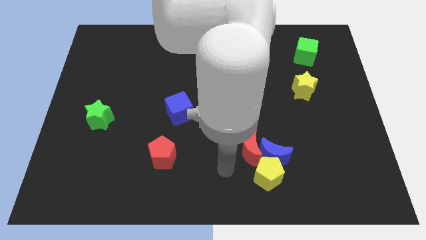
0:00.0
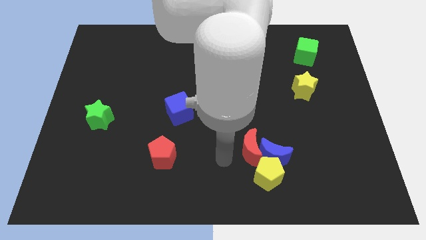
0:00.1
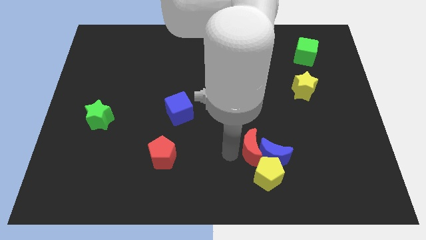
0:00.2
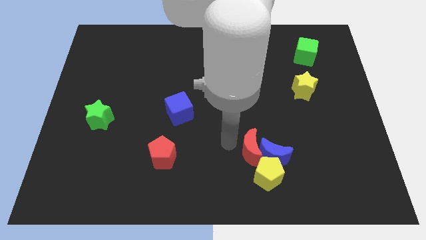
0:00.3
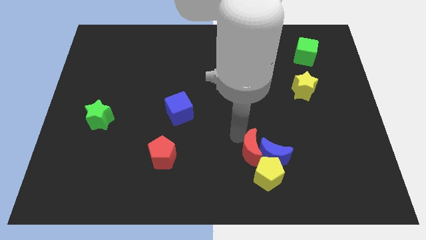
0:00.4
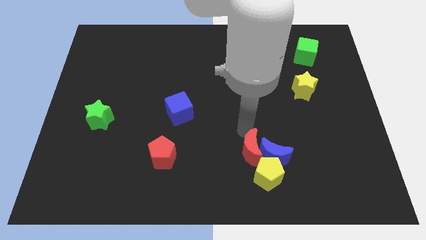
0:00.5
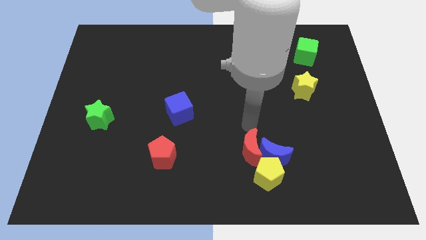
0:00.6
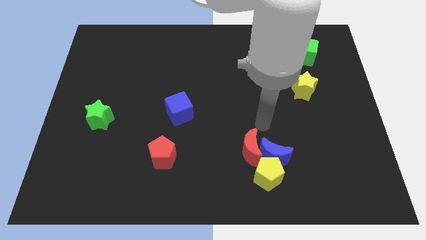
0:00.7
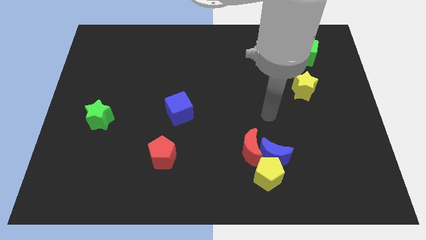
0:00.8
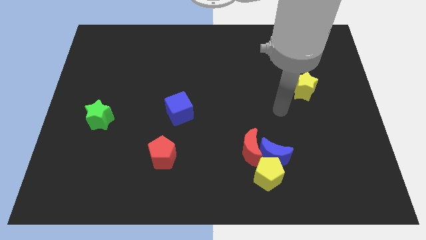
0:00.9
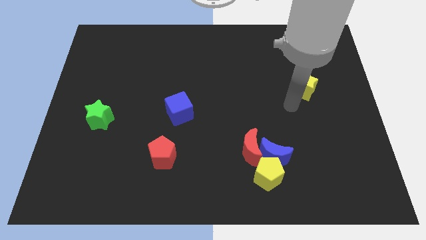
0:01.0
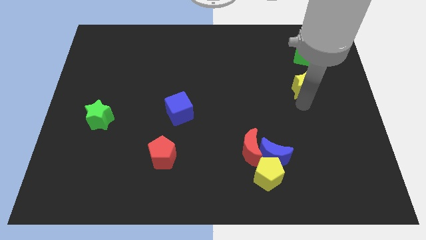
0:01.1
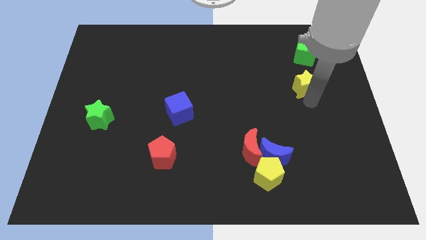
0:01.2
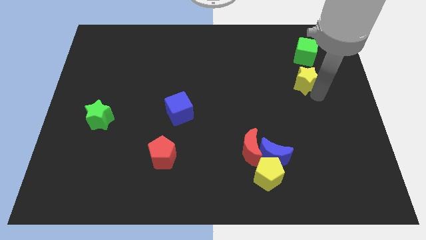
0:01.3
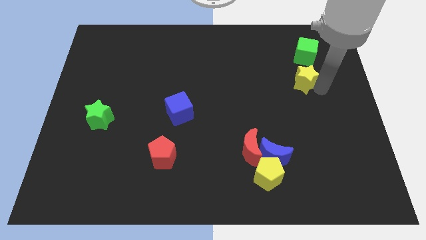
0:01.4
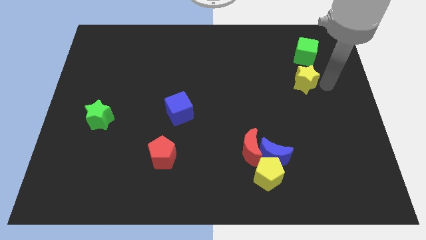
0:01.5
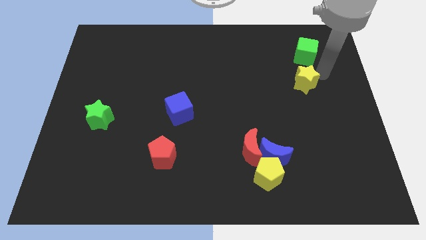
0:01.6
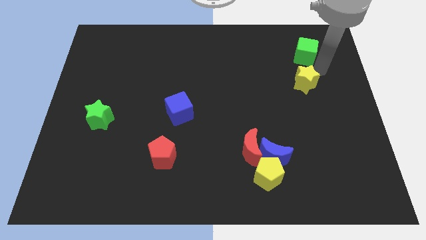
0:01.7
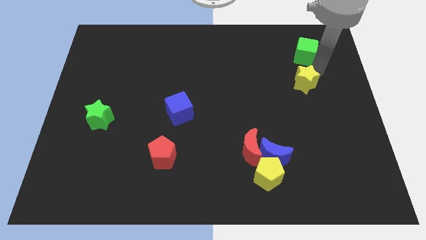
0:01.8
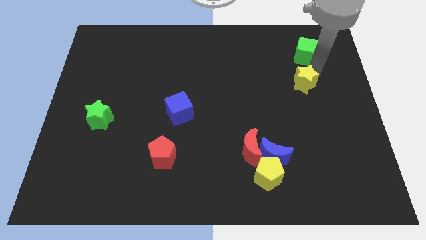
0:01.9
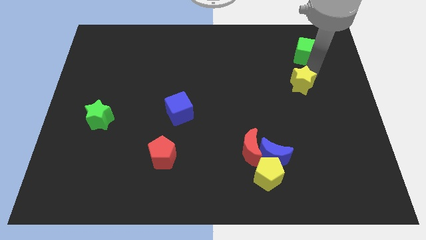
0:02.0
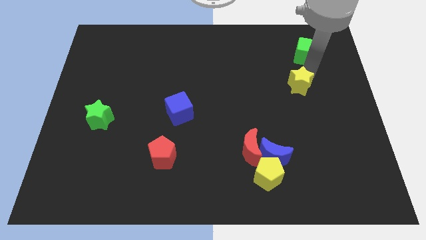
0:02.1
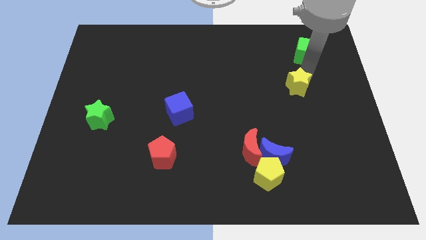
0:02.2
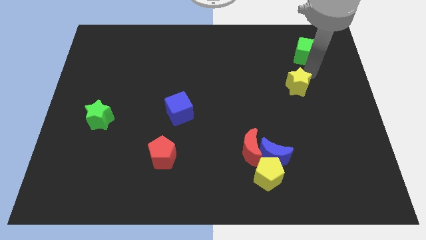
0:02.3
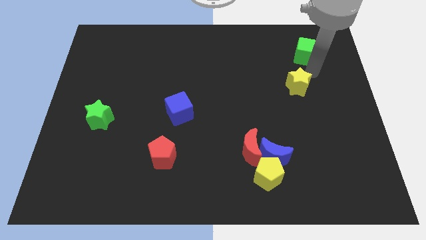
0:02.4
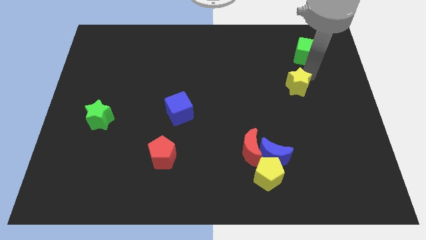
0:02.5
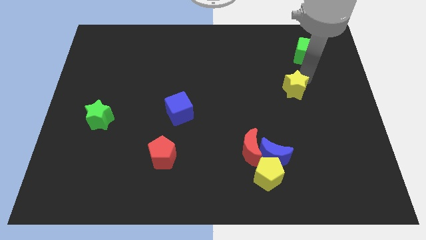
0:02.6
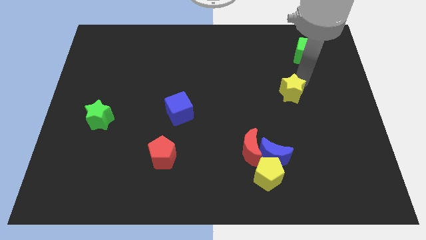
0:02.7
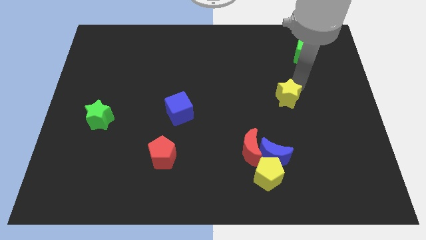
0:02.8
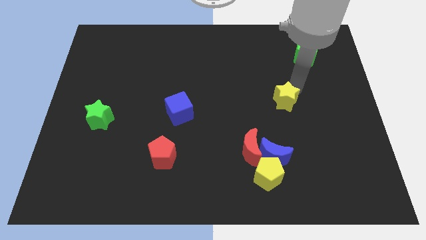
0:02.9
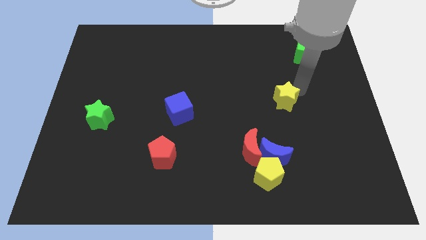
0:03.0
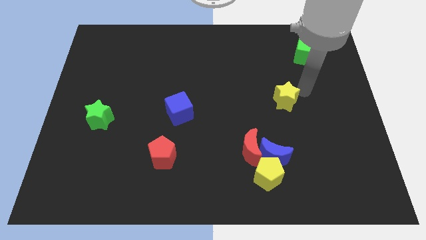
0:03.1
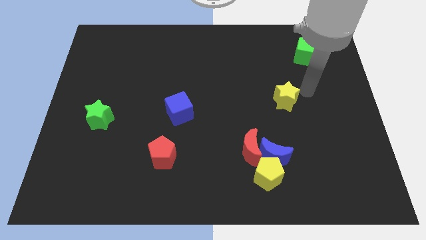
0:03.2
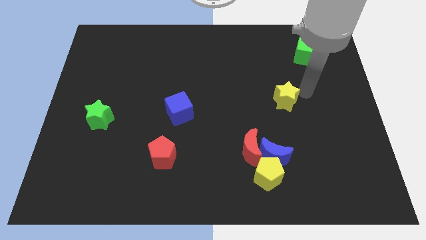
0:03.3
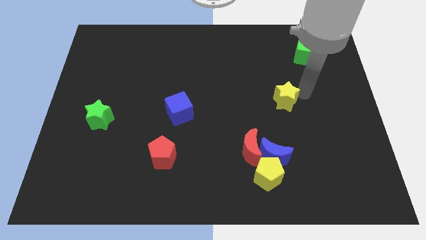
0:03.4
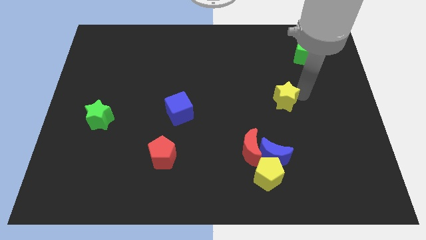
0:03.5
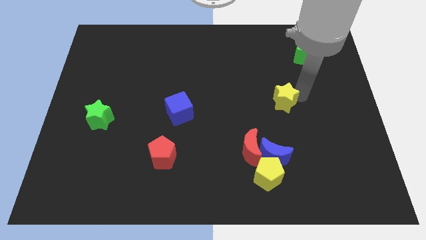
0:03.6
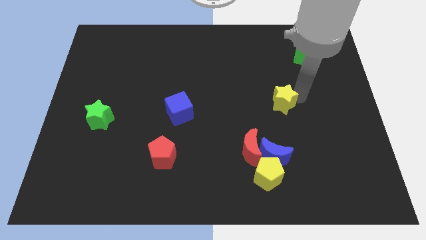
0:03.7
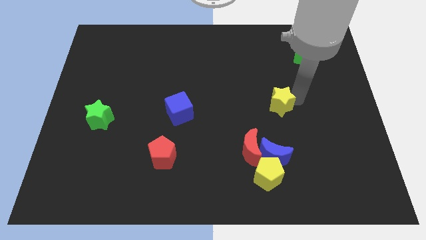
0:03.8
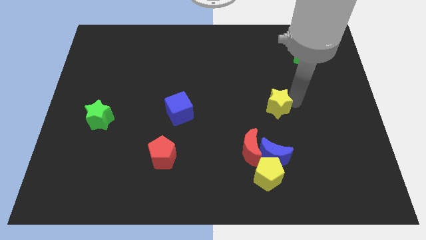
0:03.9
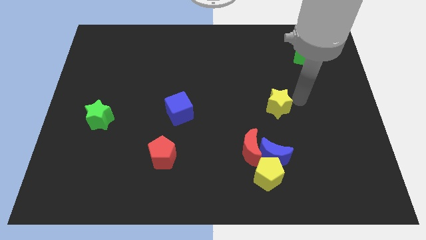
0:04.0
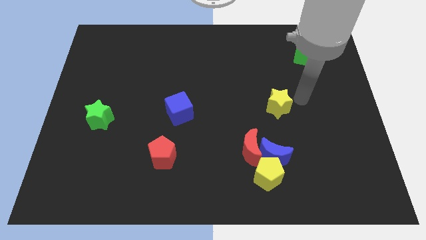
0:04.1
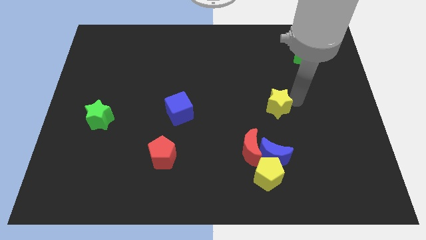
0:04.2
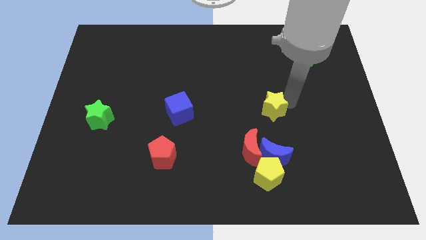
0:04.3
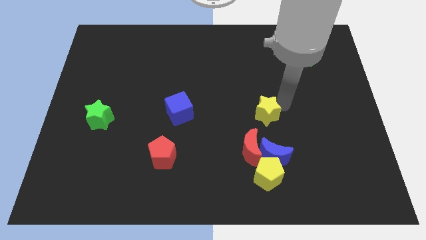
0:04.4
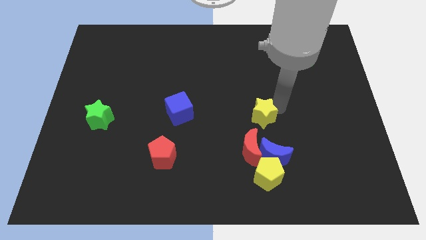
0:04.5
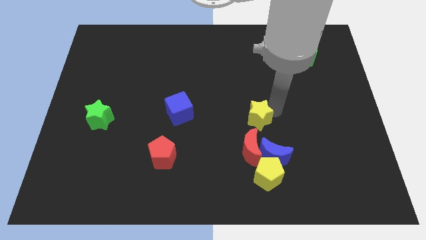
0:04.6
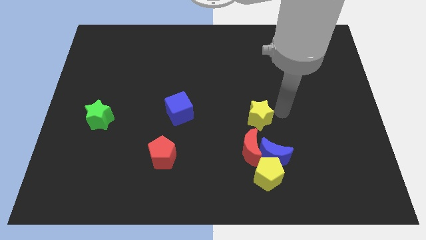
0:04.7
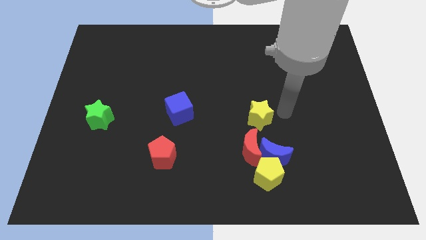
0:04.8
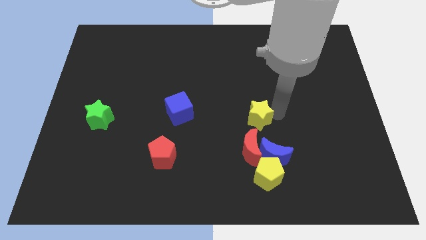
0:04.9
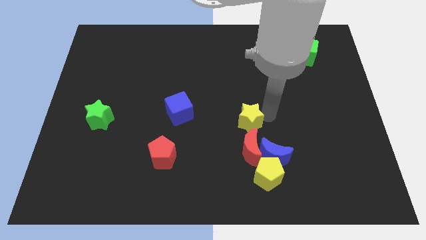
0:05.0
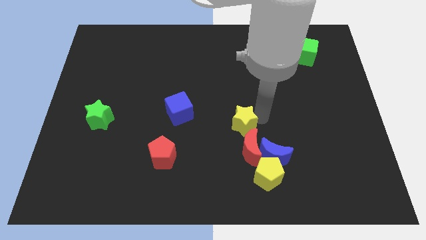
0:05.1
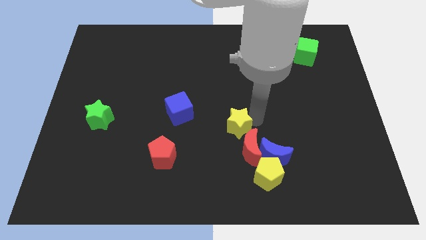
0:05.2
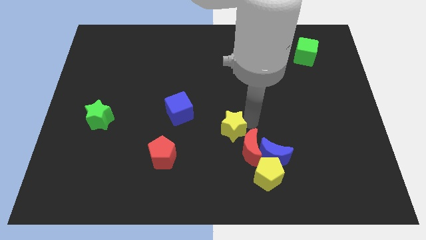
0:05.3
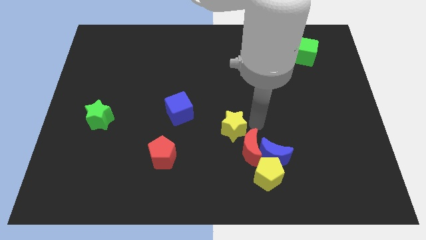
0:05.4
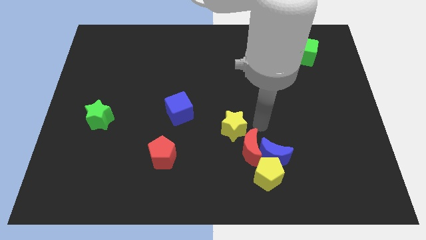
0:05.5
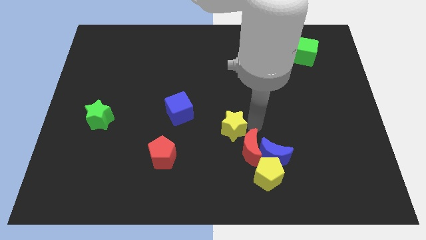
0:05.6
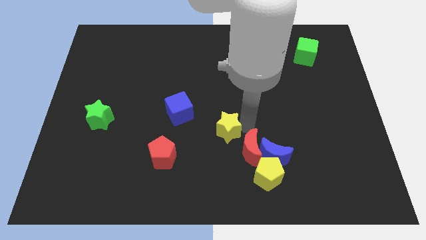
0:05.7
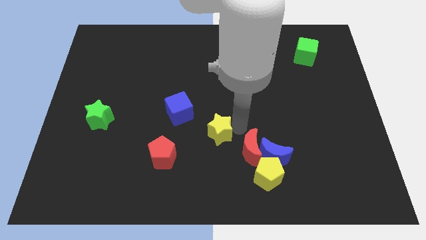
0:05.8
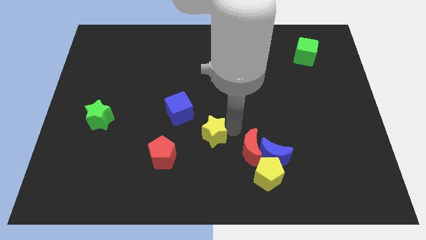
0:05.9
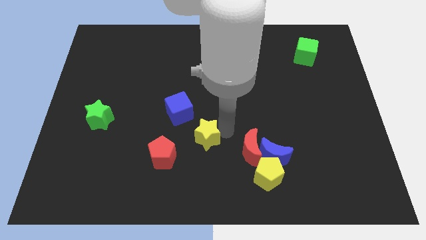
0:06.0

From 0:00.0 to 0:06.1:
put the yellow star diagonally up and to the right of the red pentagon

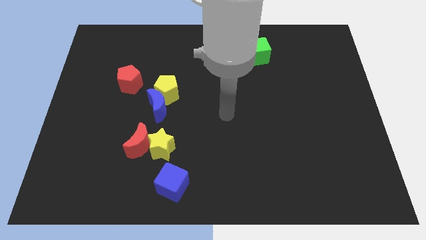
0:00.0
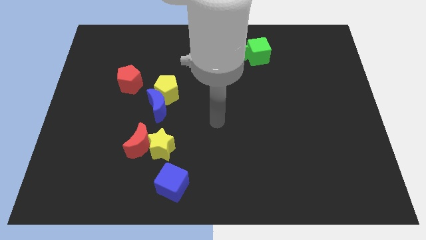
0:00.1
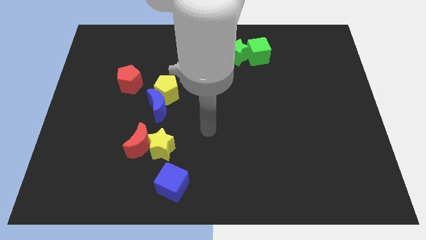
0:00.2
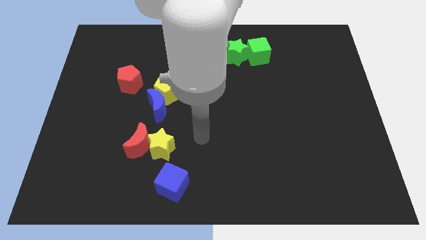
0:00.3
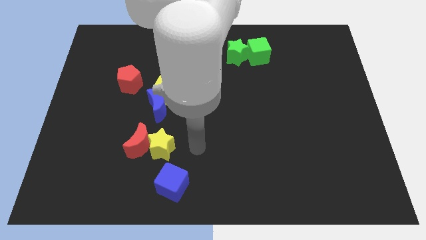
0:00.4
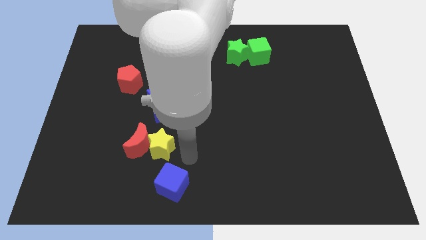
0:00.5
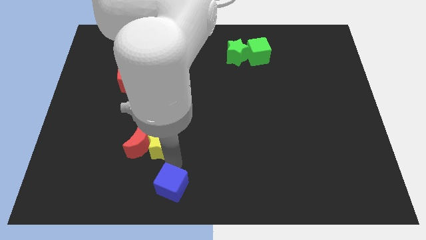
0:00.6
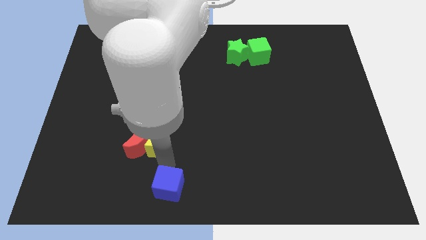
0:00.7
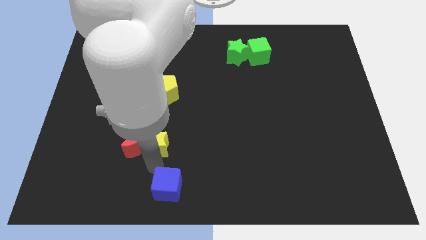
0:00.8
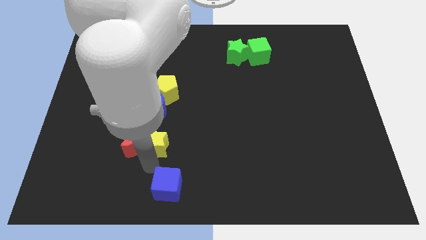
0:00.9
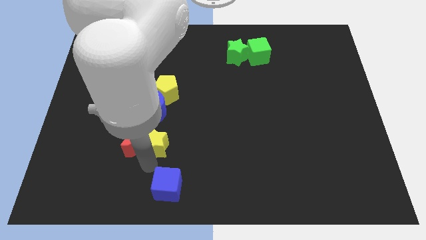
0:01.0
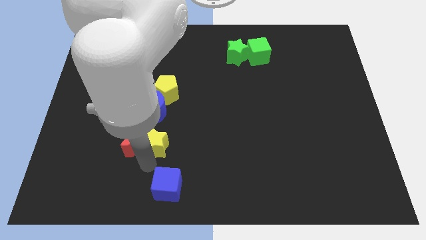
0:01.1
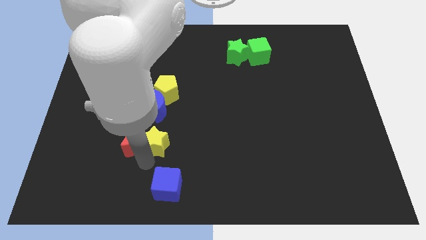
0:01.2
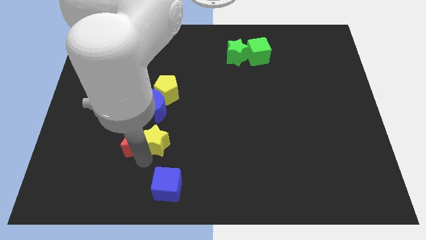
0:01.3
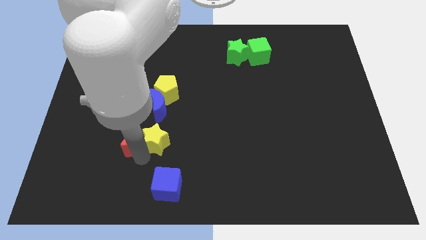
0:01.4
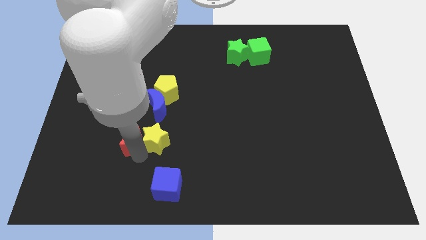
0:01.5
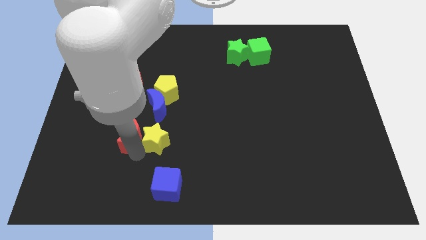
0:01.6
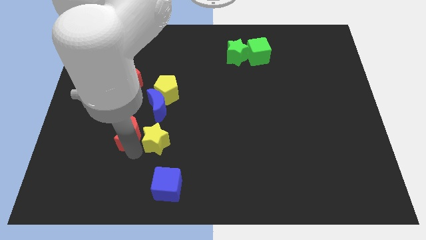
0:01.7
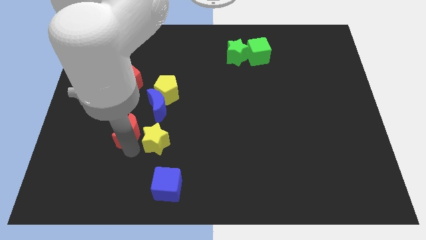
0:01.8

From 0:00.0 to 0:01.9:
move the red moon to the bottom side of the red pentagon
